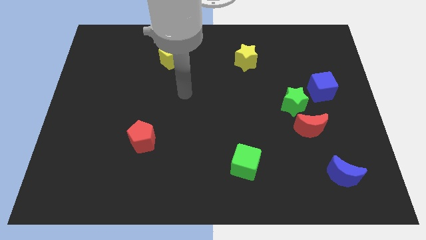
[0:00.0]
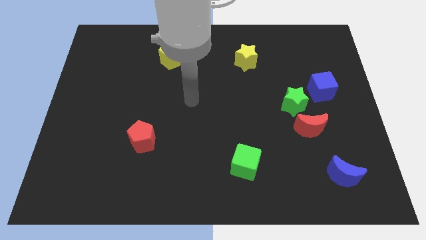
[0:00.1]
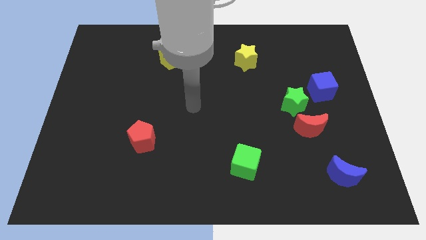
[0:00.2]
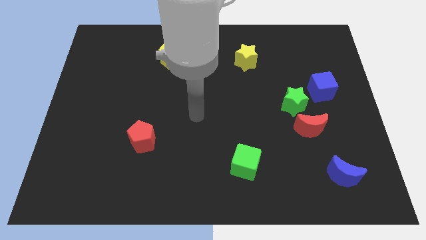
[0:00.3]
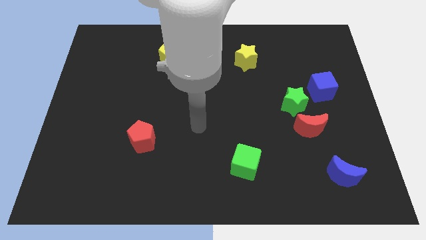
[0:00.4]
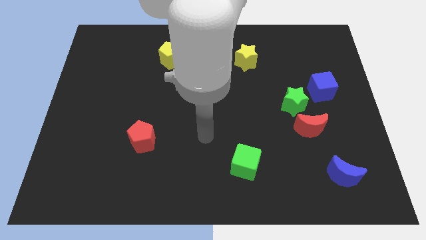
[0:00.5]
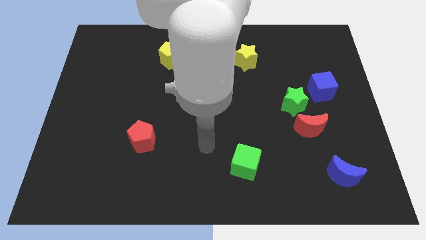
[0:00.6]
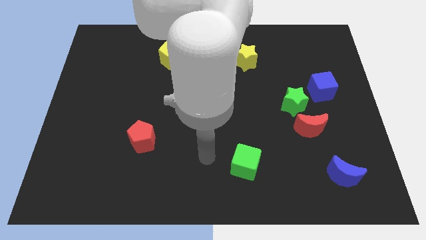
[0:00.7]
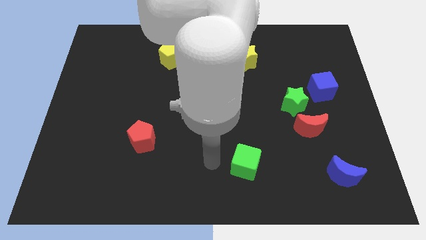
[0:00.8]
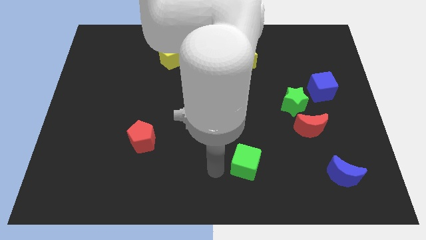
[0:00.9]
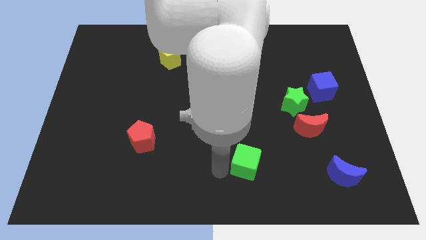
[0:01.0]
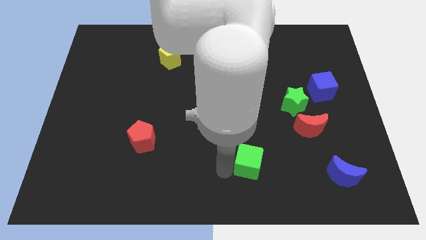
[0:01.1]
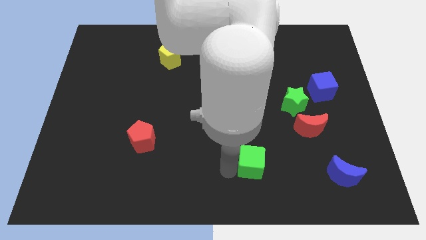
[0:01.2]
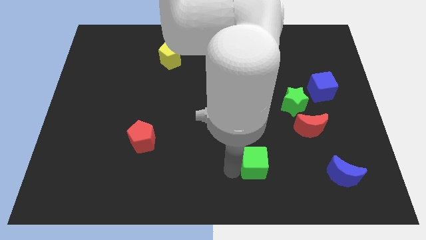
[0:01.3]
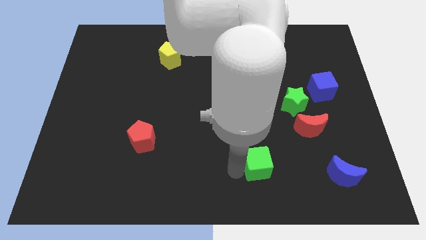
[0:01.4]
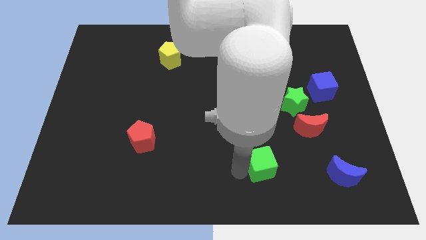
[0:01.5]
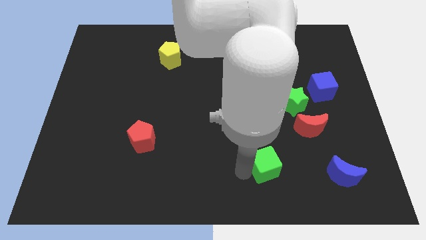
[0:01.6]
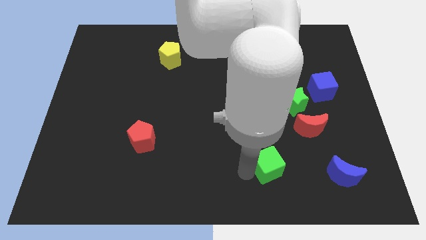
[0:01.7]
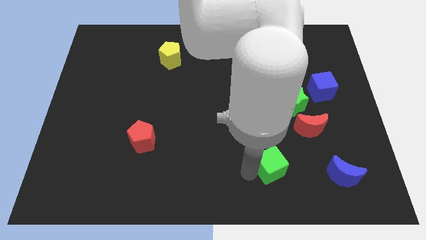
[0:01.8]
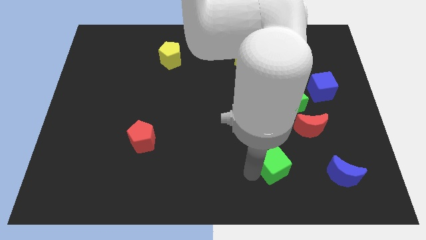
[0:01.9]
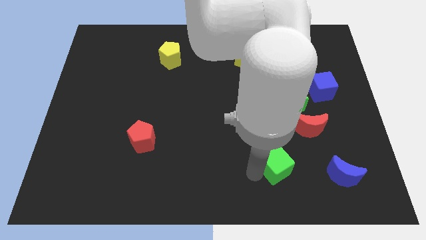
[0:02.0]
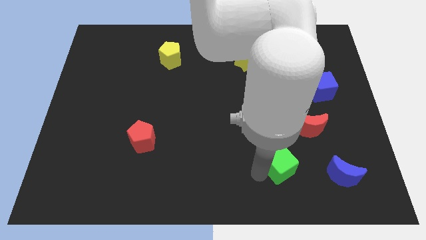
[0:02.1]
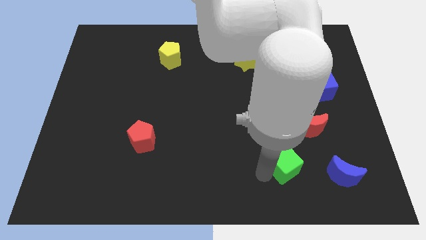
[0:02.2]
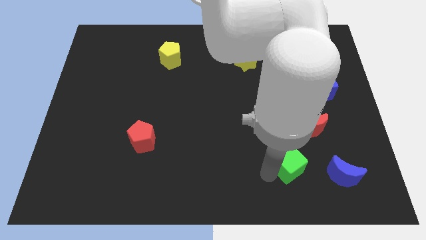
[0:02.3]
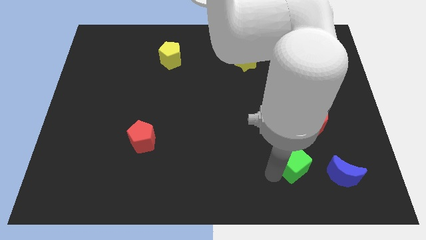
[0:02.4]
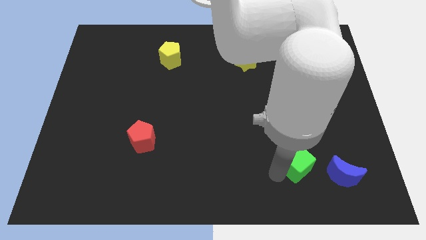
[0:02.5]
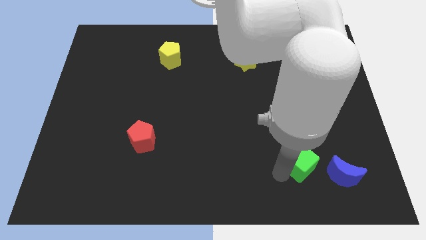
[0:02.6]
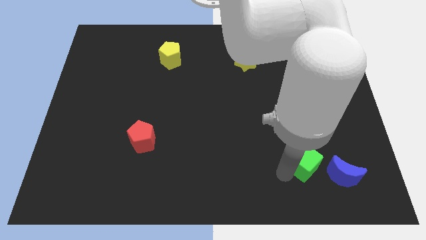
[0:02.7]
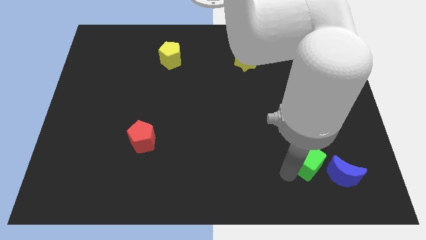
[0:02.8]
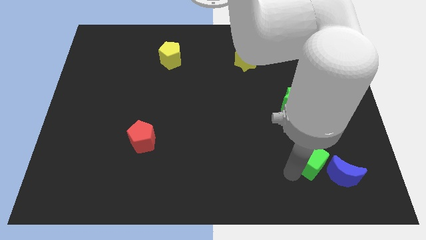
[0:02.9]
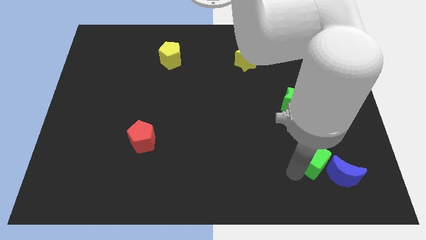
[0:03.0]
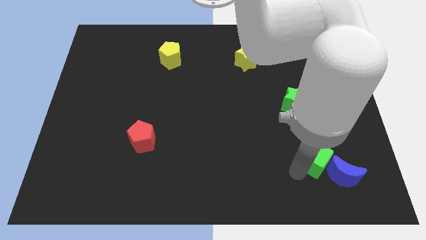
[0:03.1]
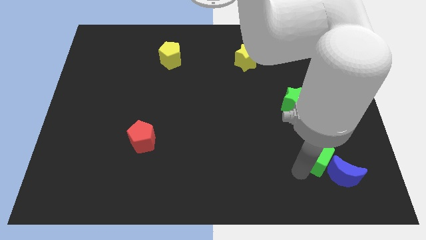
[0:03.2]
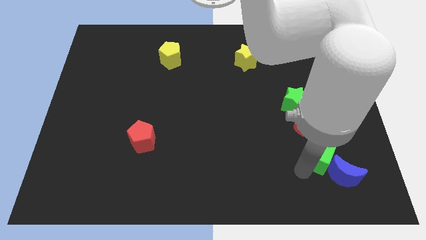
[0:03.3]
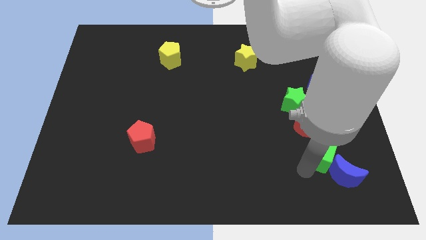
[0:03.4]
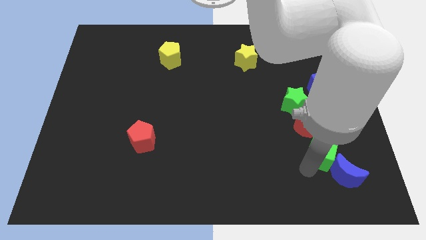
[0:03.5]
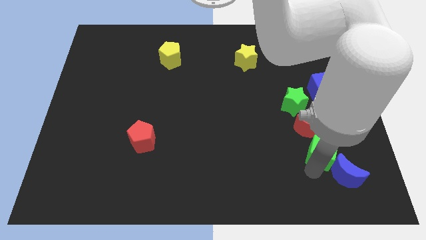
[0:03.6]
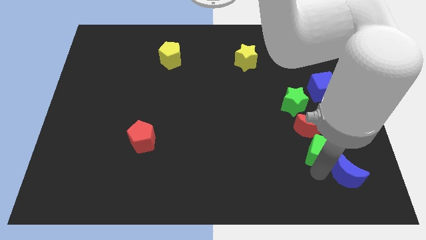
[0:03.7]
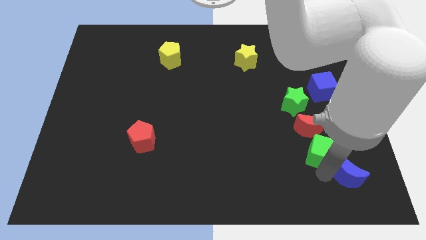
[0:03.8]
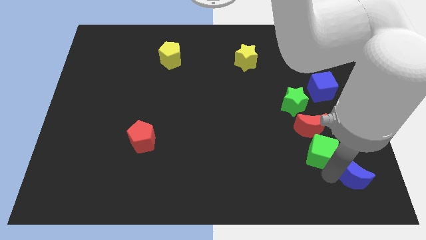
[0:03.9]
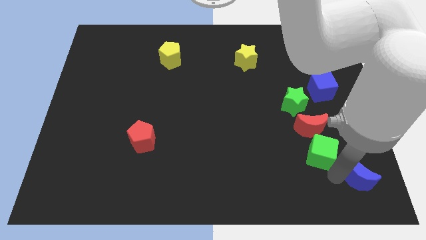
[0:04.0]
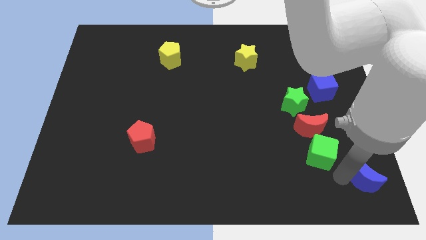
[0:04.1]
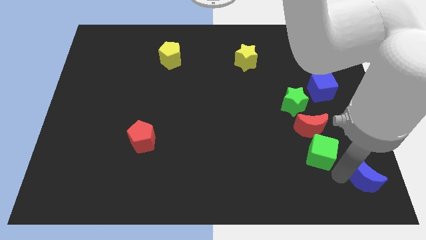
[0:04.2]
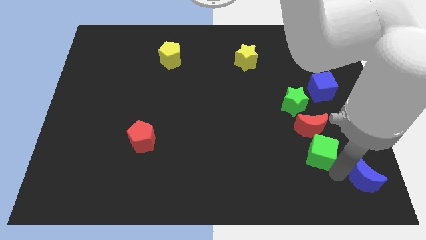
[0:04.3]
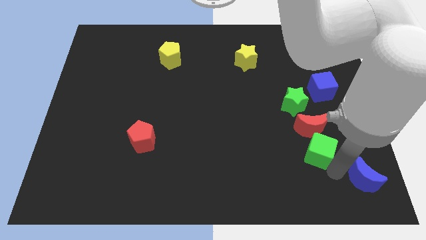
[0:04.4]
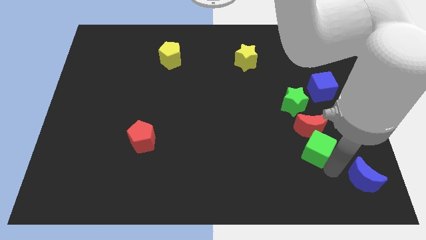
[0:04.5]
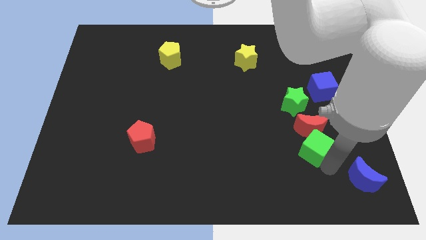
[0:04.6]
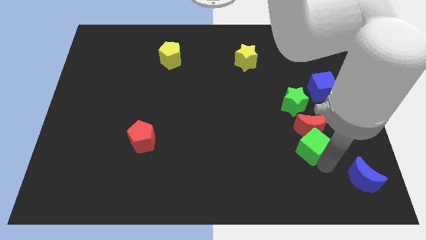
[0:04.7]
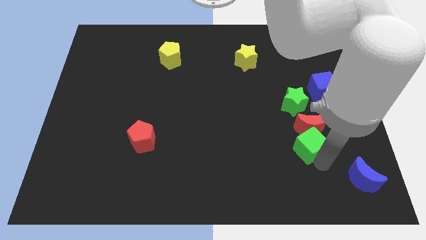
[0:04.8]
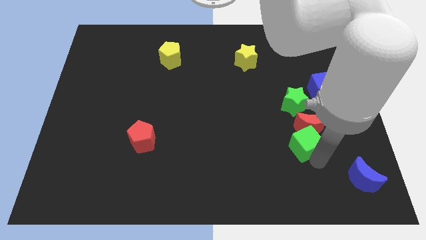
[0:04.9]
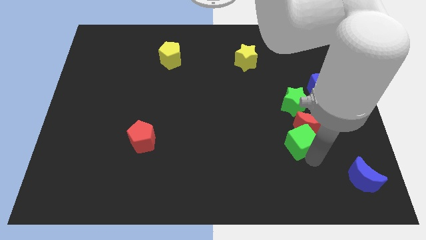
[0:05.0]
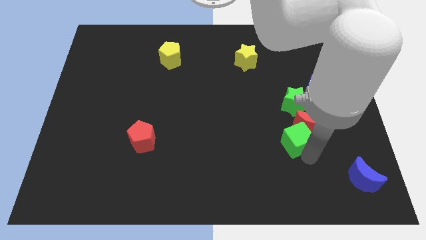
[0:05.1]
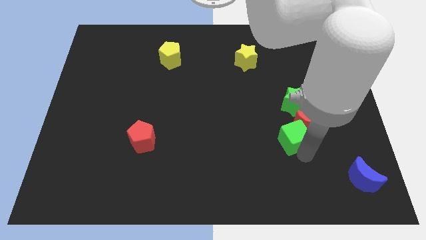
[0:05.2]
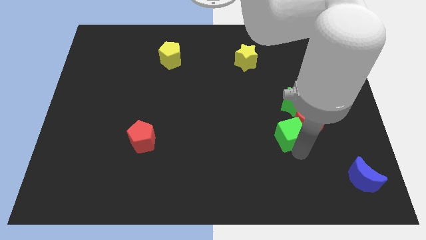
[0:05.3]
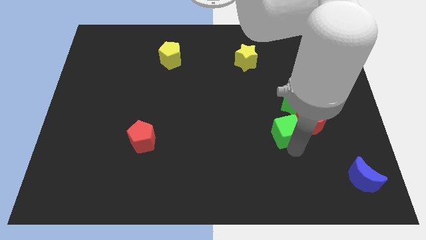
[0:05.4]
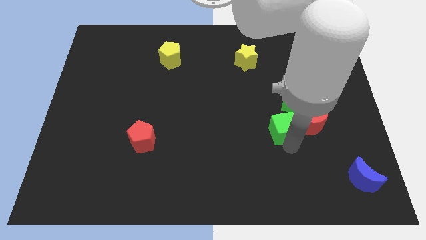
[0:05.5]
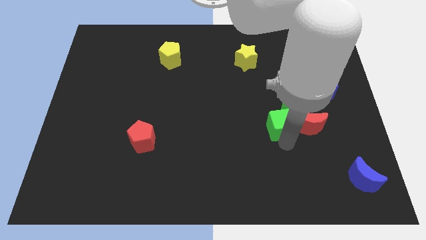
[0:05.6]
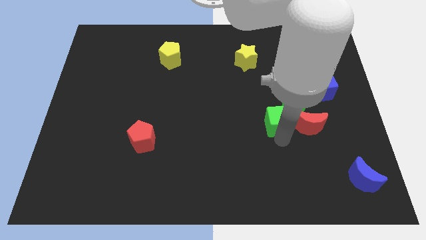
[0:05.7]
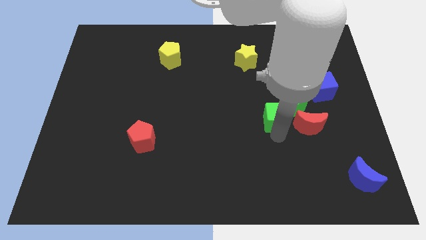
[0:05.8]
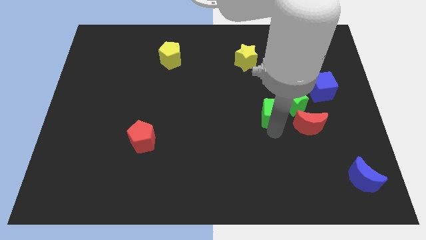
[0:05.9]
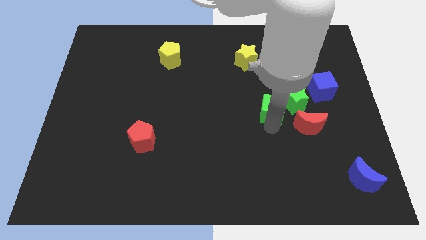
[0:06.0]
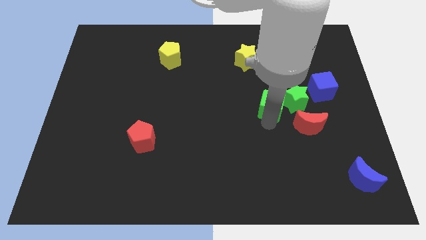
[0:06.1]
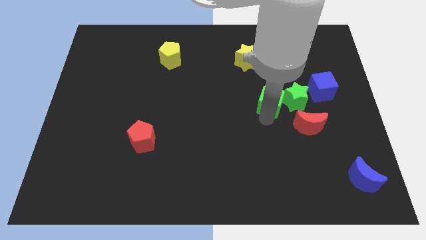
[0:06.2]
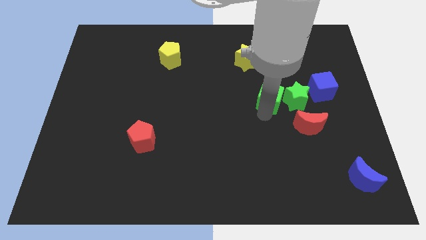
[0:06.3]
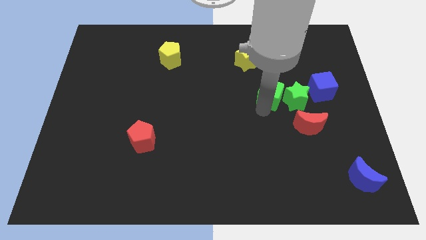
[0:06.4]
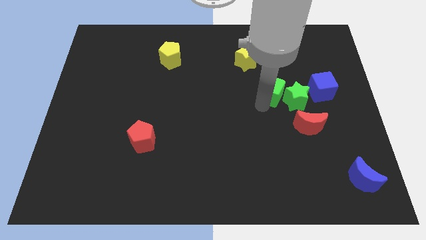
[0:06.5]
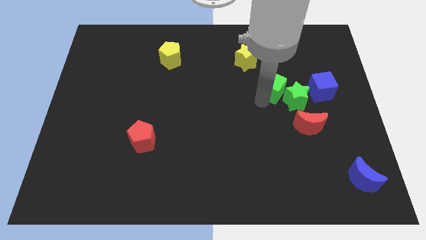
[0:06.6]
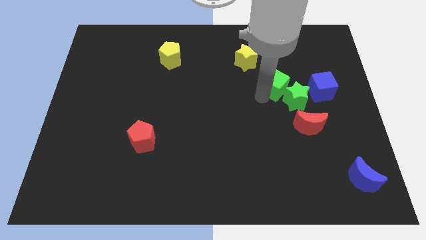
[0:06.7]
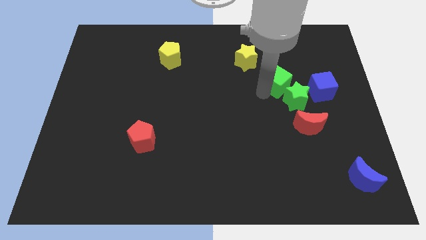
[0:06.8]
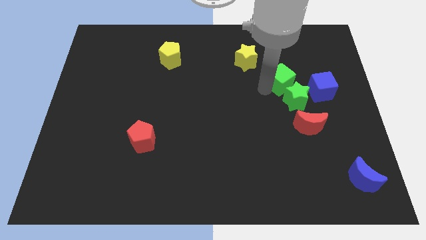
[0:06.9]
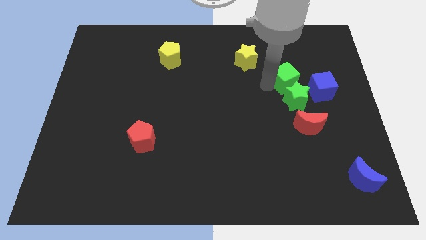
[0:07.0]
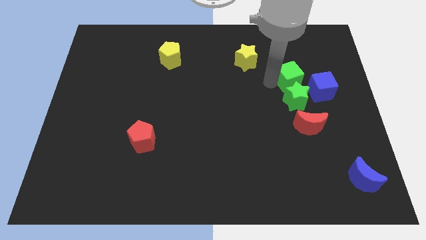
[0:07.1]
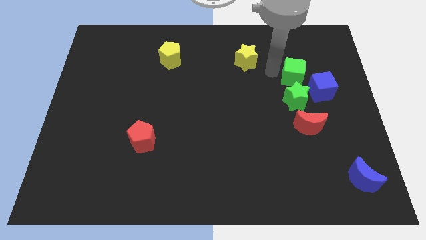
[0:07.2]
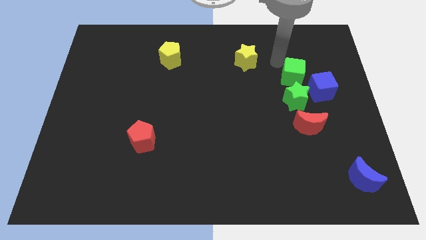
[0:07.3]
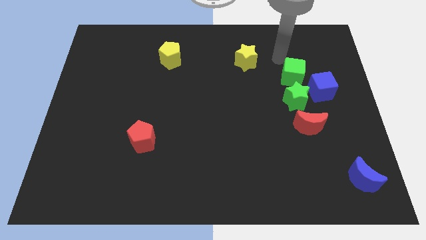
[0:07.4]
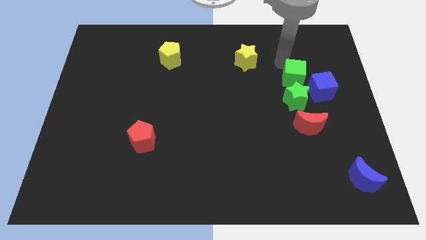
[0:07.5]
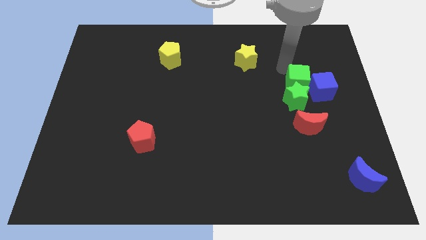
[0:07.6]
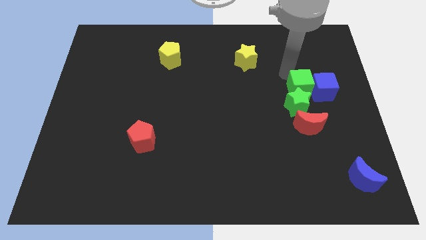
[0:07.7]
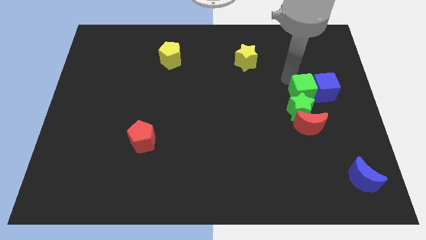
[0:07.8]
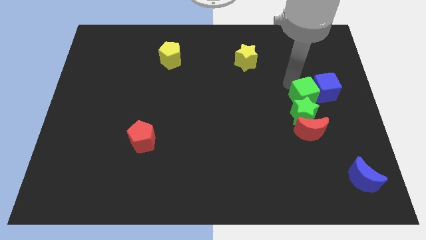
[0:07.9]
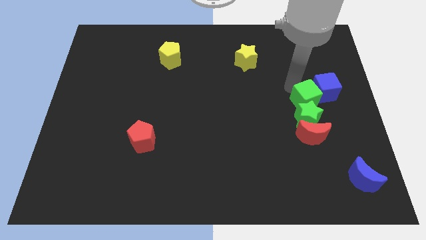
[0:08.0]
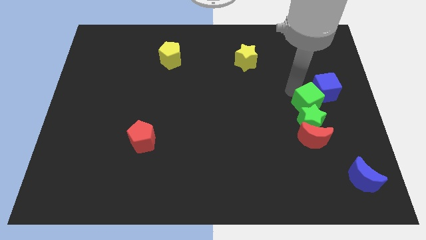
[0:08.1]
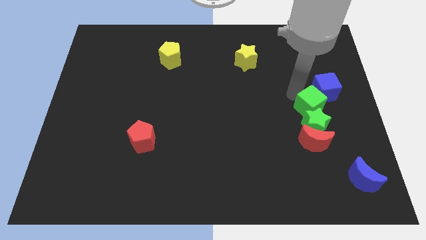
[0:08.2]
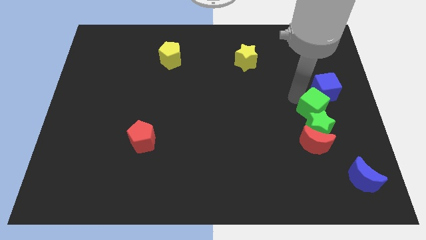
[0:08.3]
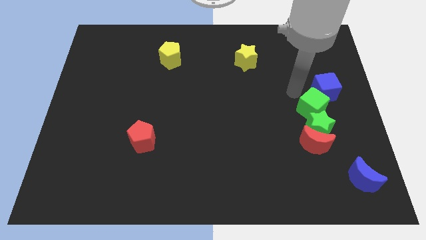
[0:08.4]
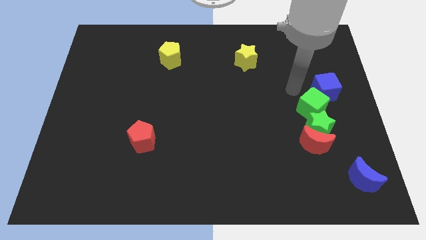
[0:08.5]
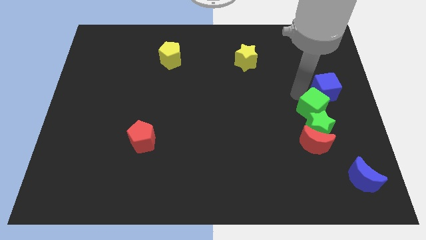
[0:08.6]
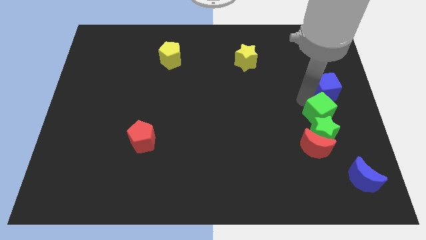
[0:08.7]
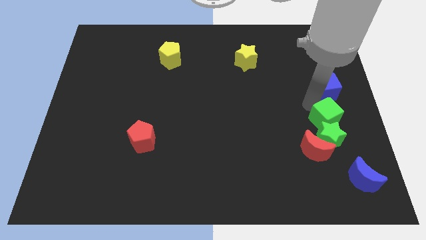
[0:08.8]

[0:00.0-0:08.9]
push the green cube to the center right
